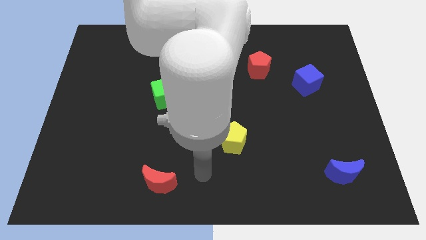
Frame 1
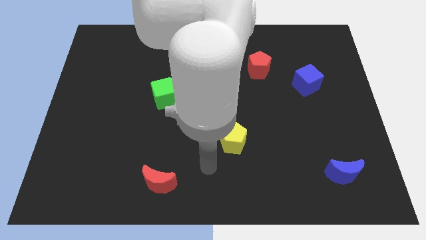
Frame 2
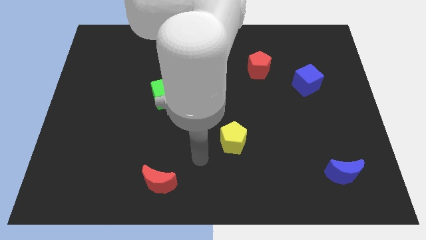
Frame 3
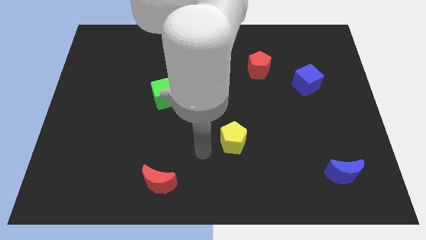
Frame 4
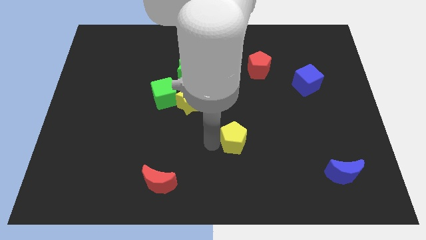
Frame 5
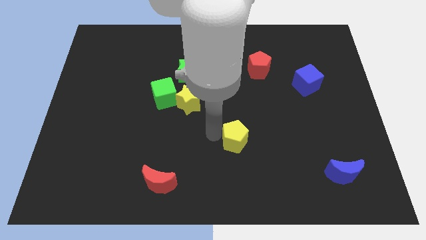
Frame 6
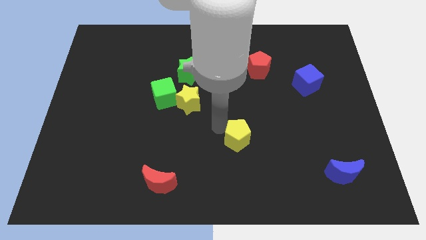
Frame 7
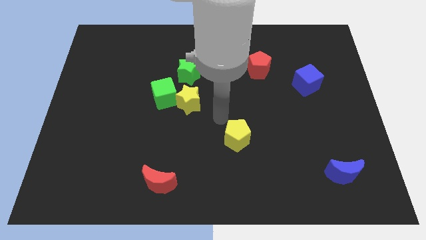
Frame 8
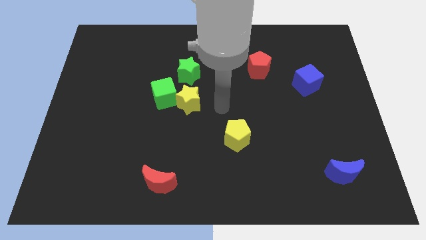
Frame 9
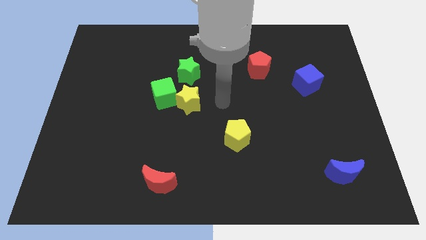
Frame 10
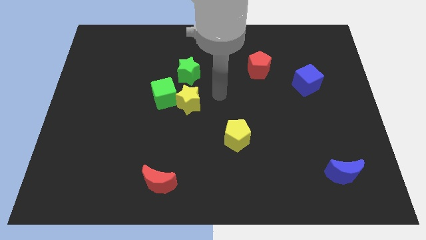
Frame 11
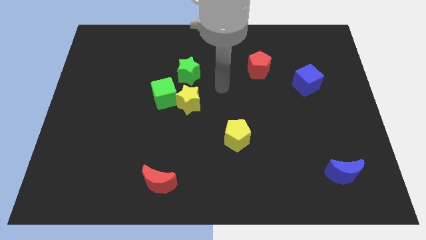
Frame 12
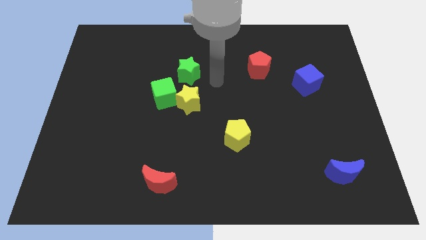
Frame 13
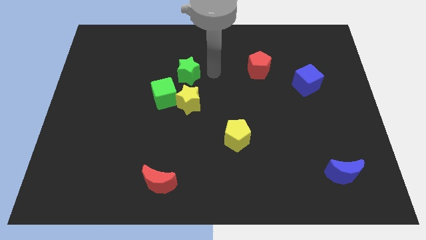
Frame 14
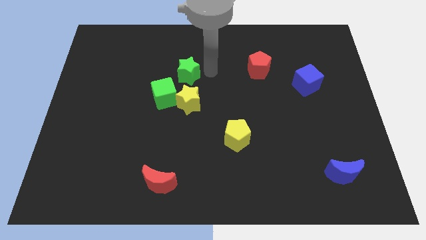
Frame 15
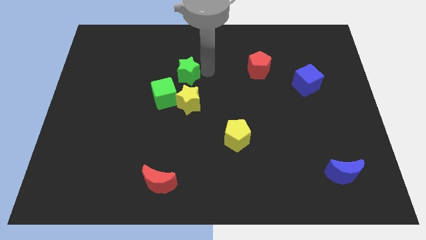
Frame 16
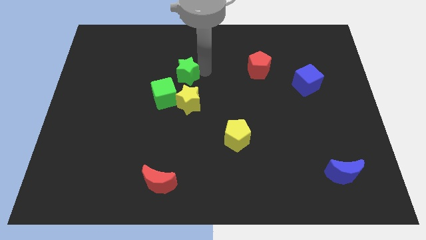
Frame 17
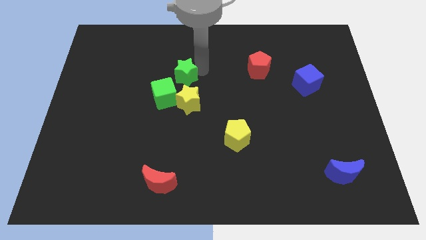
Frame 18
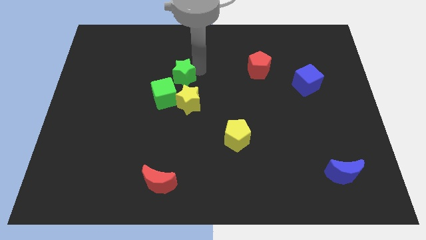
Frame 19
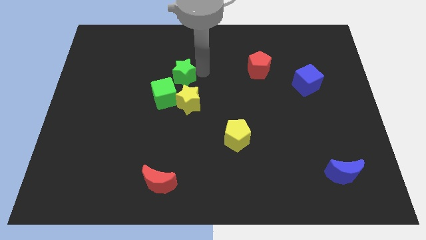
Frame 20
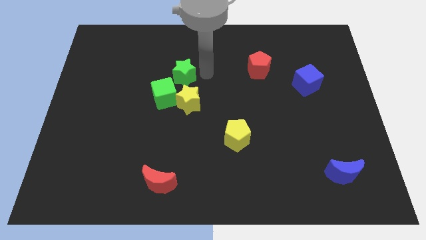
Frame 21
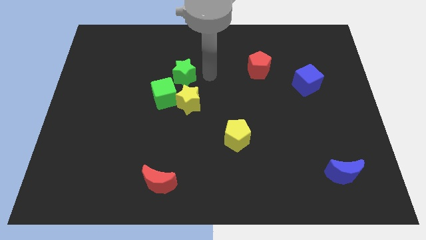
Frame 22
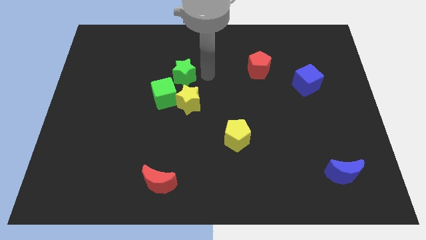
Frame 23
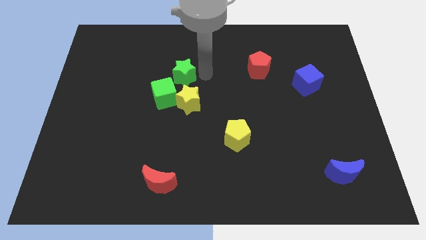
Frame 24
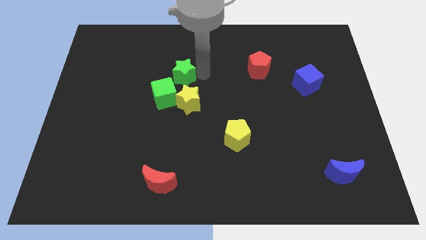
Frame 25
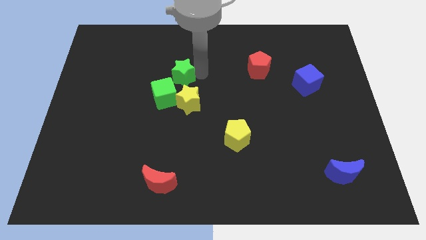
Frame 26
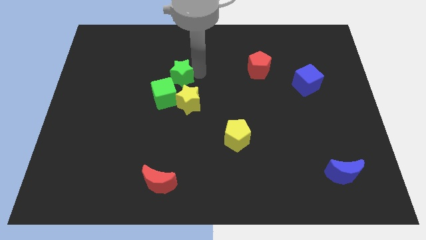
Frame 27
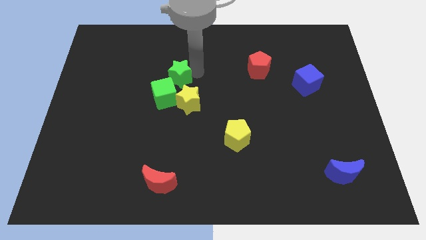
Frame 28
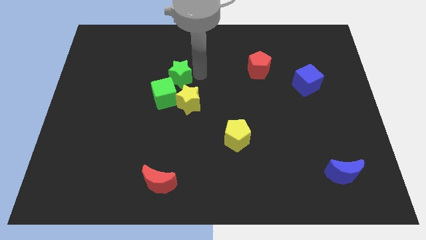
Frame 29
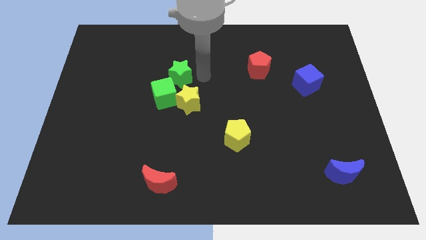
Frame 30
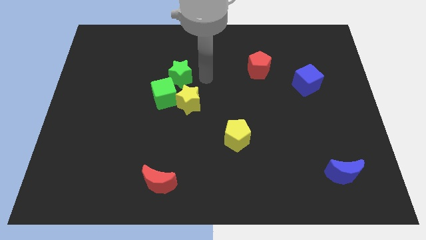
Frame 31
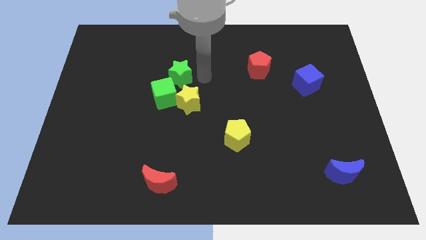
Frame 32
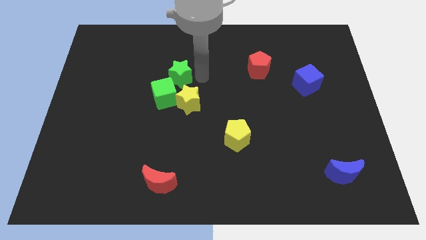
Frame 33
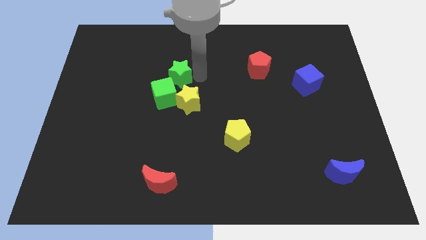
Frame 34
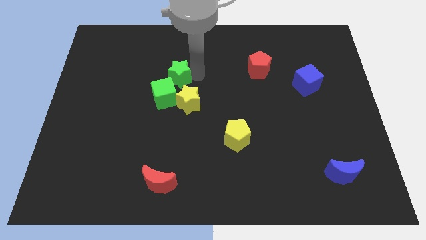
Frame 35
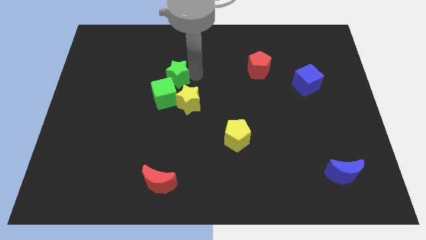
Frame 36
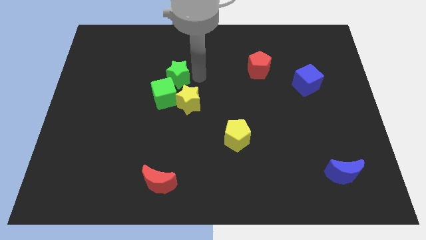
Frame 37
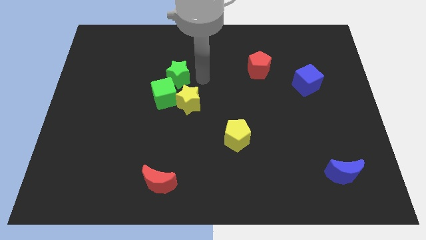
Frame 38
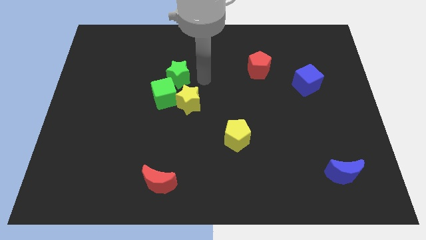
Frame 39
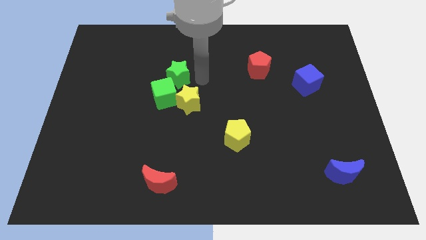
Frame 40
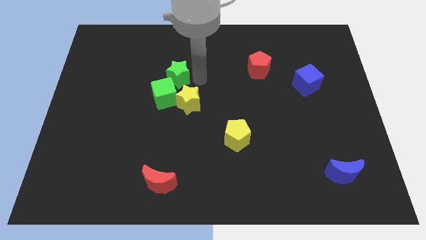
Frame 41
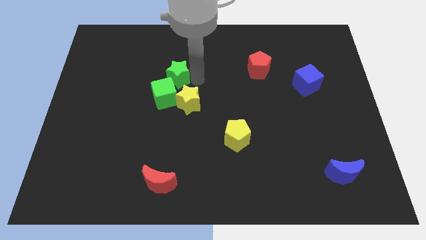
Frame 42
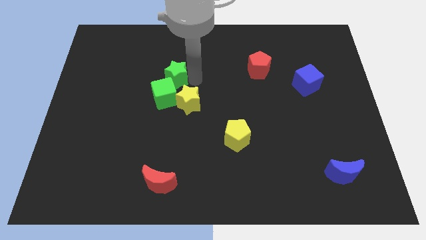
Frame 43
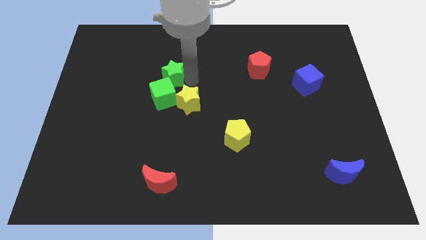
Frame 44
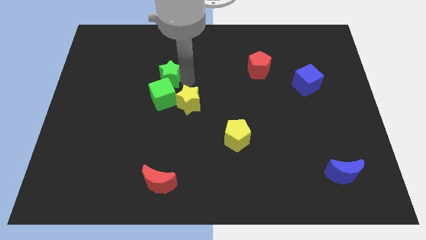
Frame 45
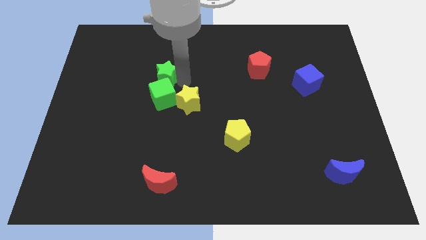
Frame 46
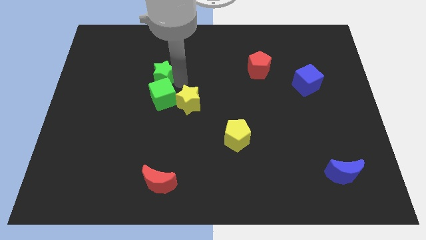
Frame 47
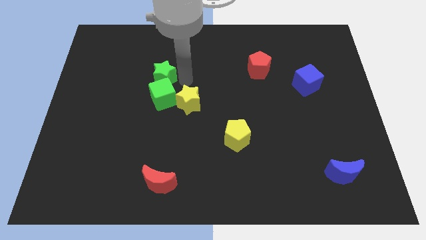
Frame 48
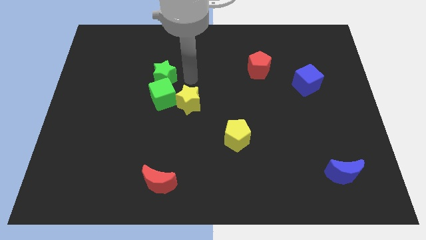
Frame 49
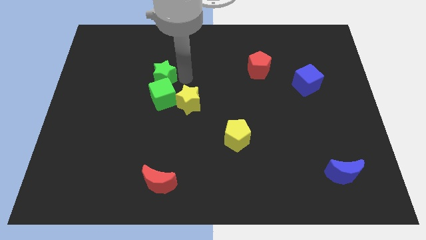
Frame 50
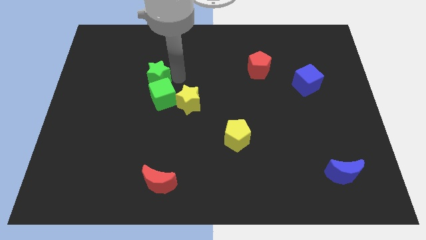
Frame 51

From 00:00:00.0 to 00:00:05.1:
slightly push the green star left

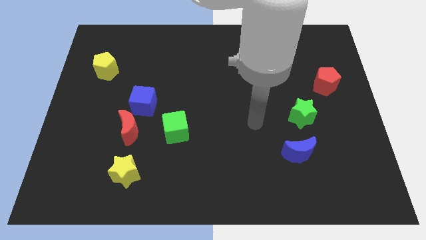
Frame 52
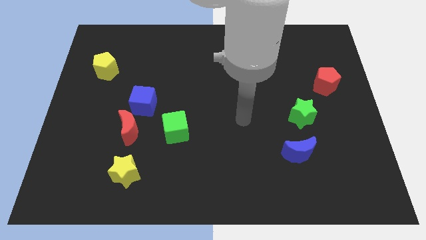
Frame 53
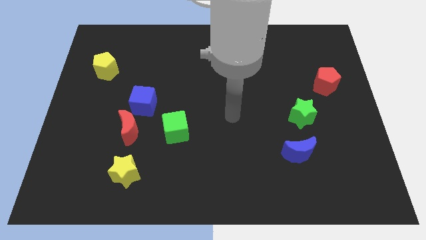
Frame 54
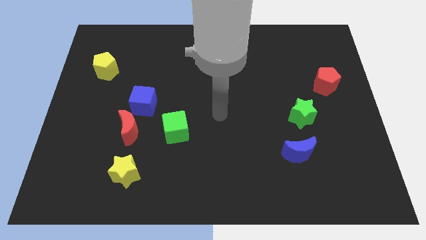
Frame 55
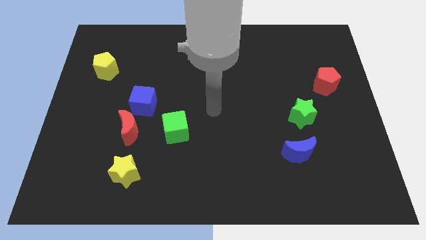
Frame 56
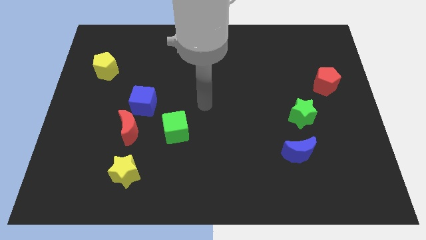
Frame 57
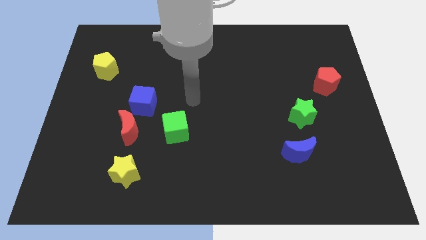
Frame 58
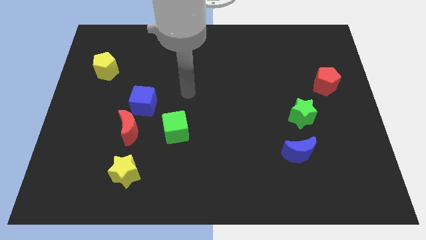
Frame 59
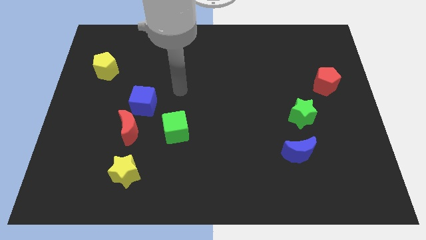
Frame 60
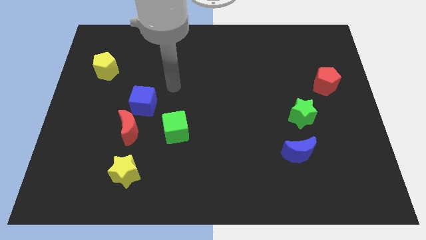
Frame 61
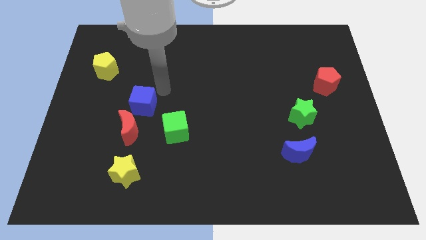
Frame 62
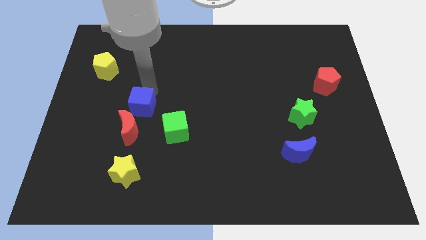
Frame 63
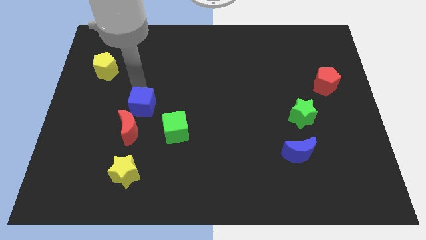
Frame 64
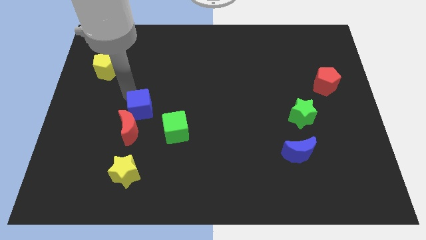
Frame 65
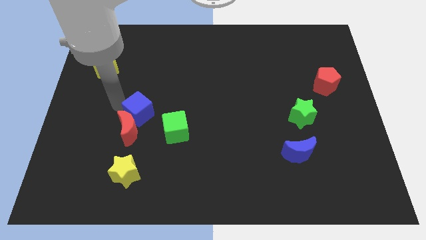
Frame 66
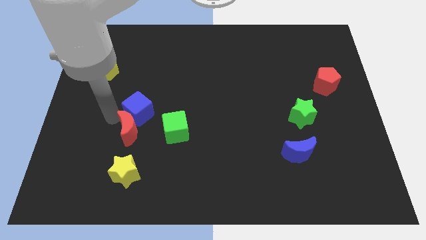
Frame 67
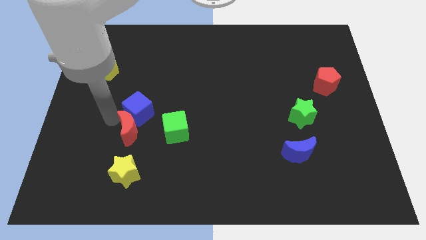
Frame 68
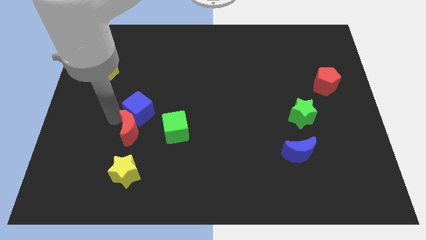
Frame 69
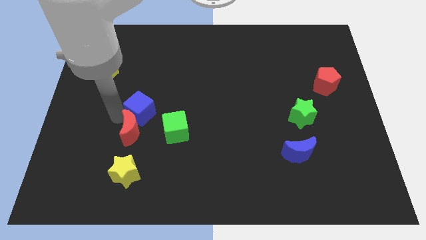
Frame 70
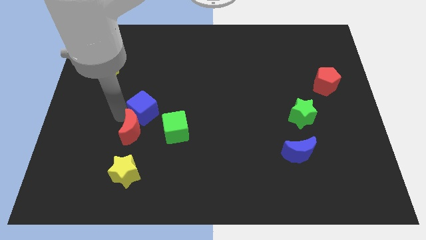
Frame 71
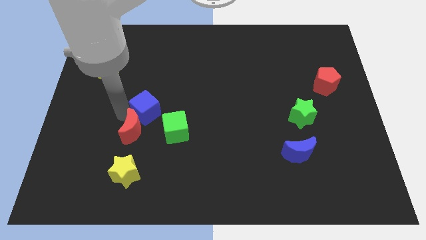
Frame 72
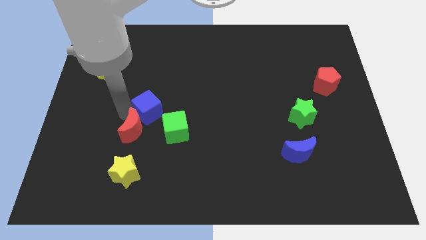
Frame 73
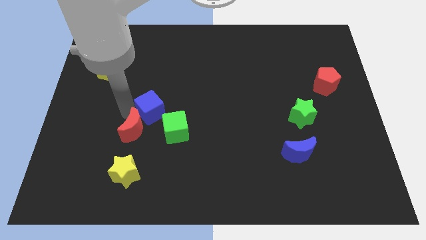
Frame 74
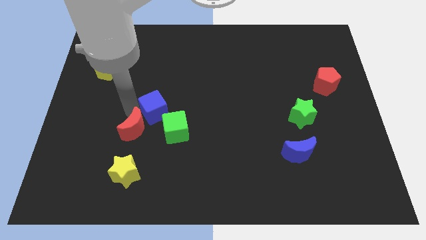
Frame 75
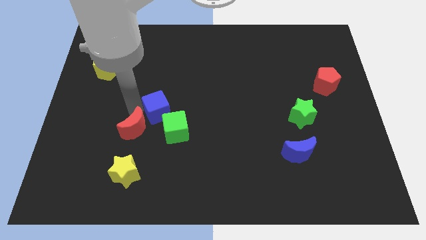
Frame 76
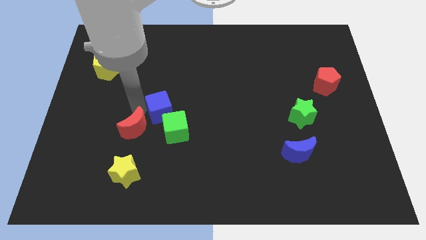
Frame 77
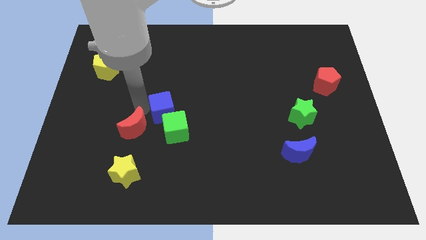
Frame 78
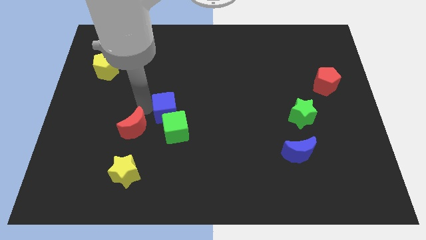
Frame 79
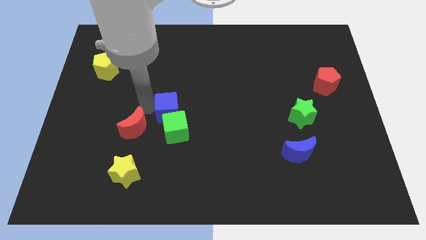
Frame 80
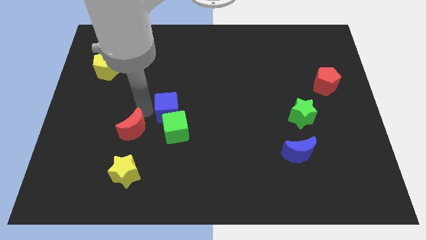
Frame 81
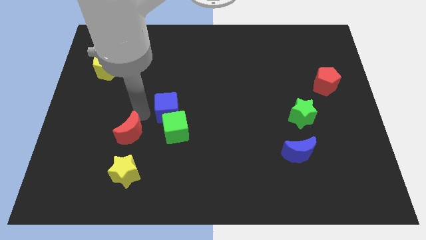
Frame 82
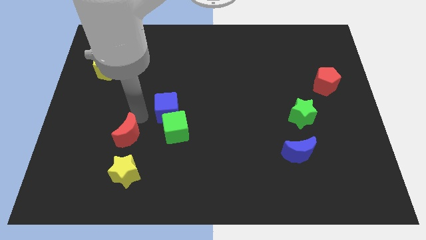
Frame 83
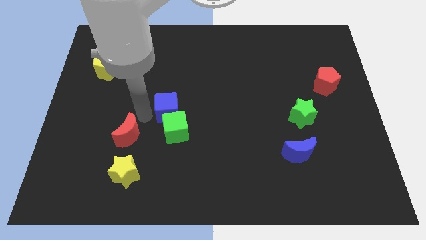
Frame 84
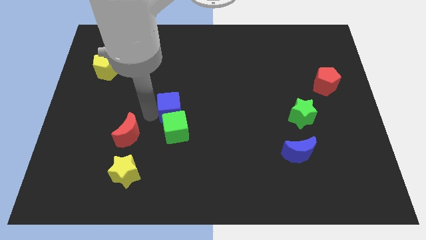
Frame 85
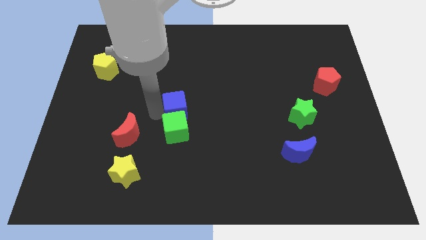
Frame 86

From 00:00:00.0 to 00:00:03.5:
slightly push the blue cube to the right
